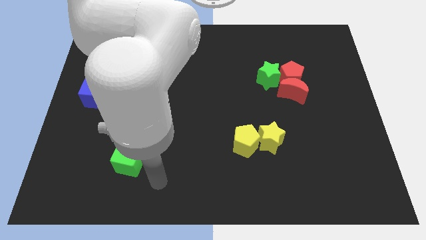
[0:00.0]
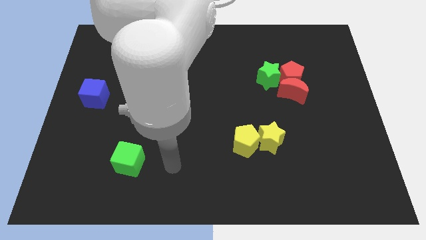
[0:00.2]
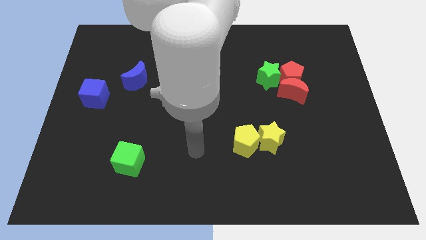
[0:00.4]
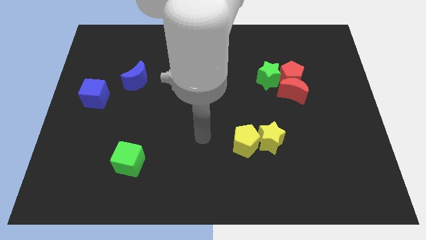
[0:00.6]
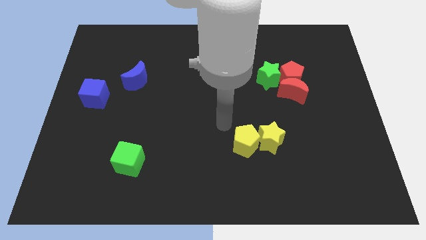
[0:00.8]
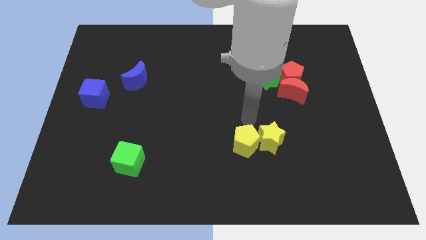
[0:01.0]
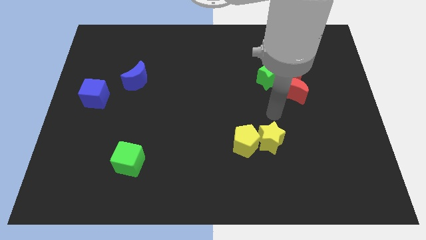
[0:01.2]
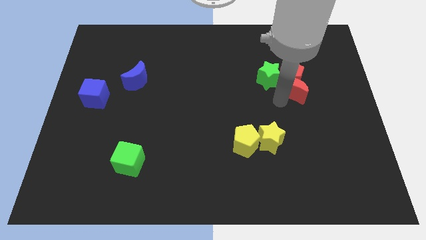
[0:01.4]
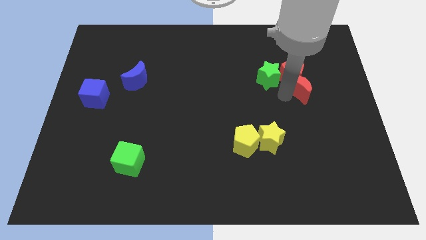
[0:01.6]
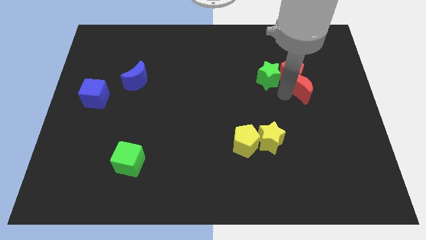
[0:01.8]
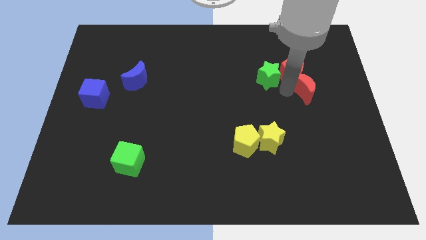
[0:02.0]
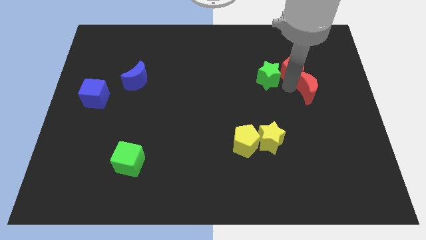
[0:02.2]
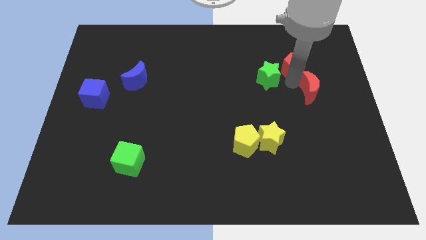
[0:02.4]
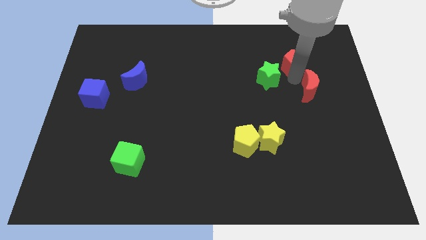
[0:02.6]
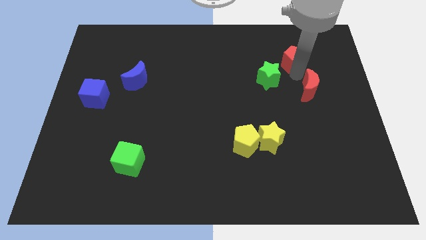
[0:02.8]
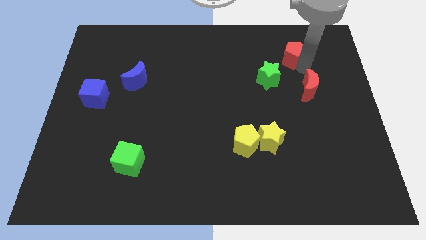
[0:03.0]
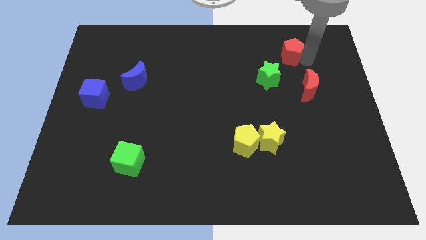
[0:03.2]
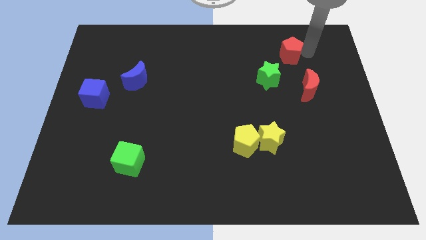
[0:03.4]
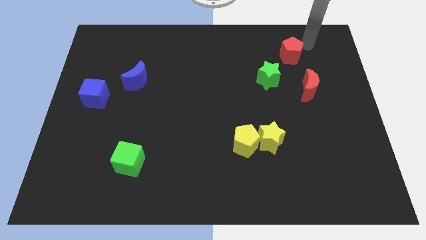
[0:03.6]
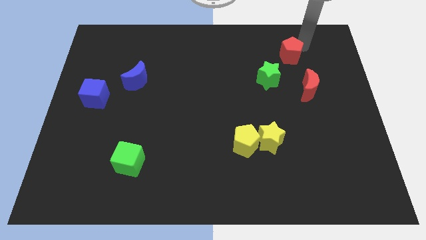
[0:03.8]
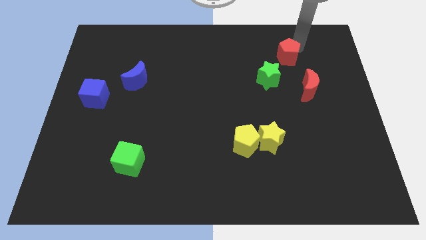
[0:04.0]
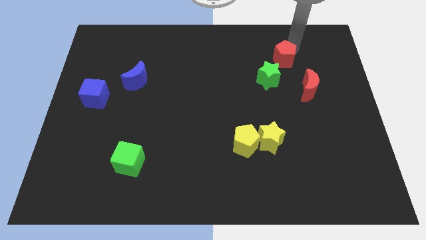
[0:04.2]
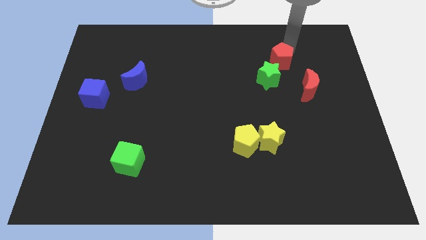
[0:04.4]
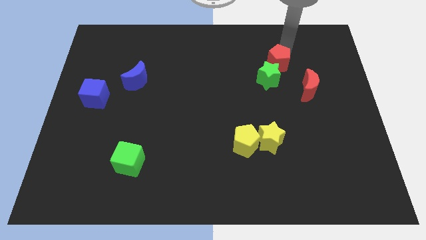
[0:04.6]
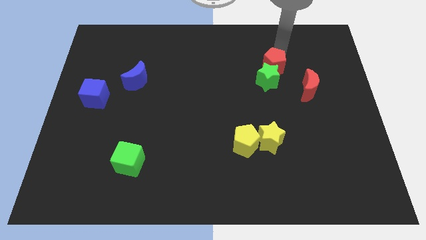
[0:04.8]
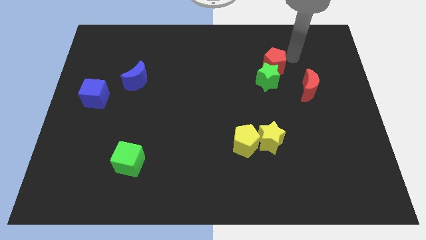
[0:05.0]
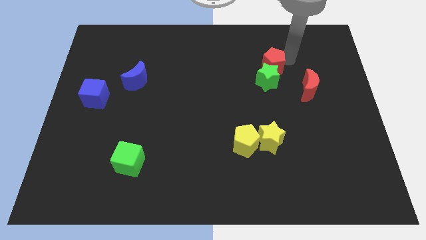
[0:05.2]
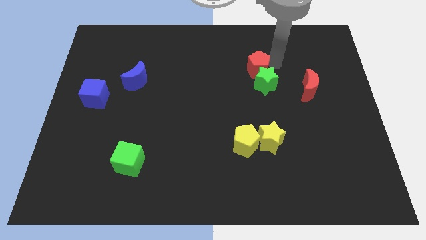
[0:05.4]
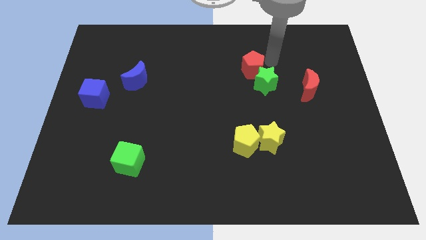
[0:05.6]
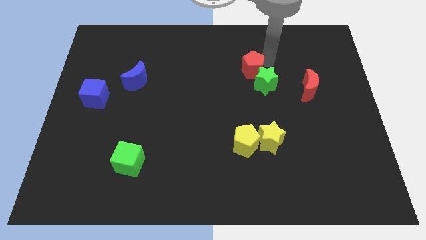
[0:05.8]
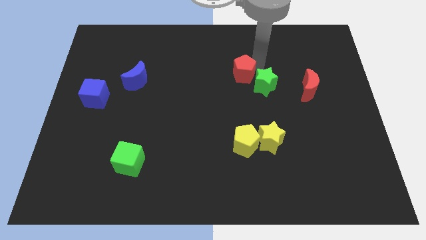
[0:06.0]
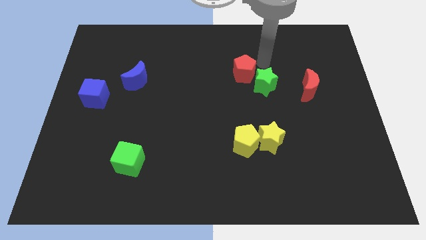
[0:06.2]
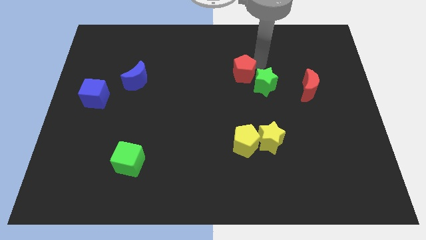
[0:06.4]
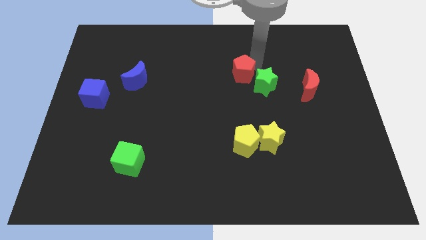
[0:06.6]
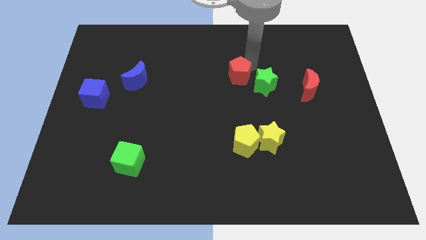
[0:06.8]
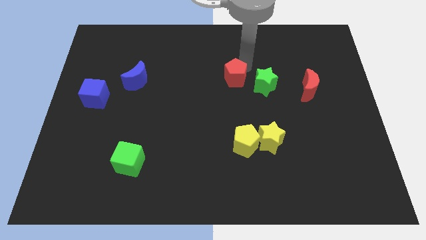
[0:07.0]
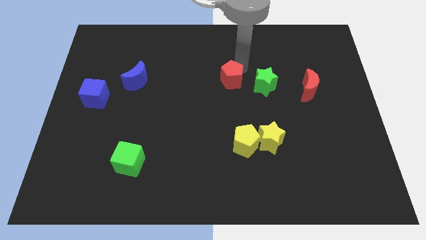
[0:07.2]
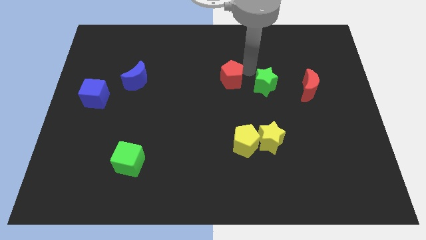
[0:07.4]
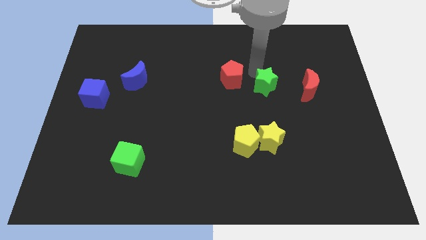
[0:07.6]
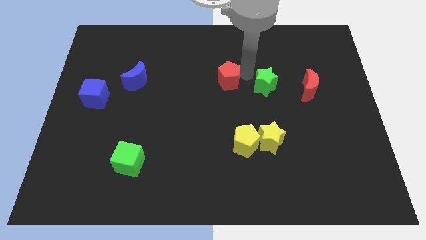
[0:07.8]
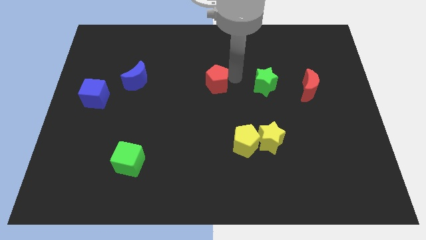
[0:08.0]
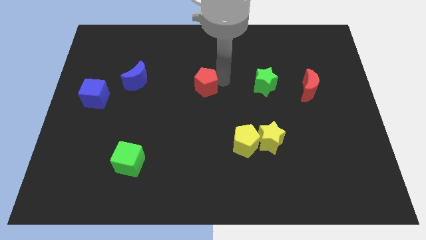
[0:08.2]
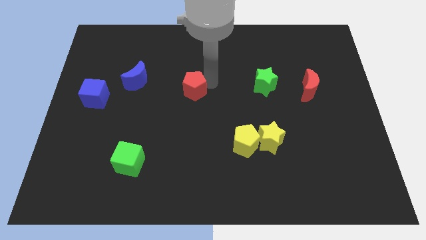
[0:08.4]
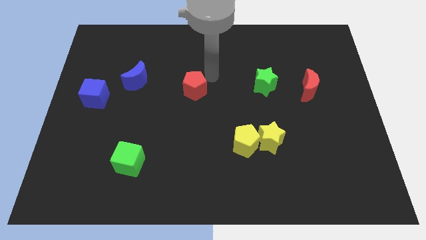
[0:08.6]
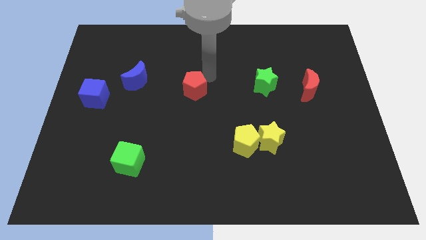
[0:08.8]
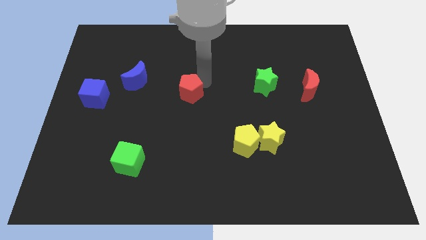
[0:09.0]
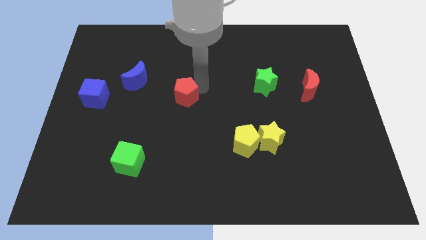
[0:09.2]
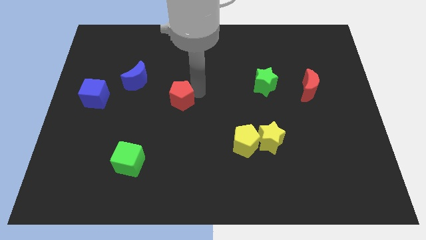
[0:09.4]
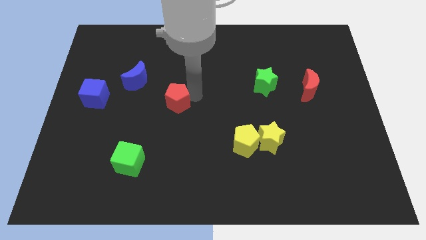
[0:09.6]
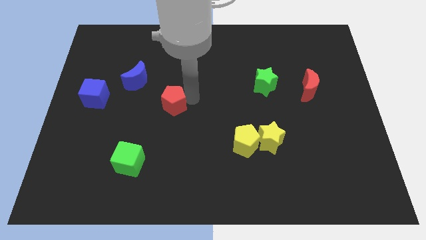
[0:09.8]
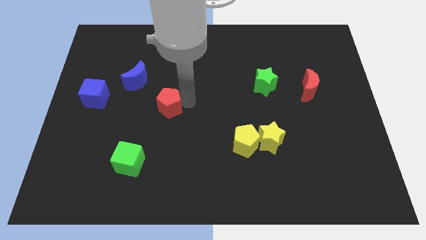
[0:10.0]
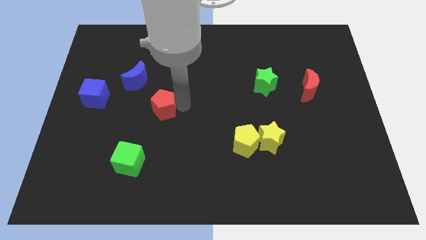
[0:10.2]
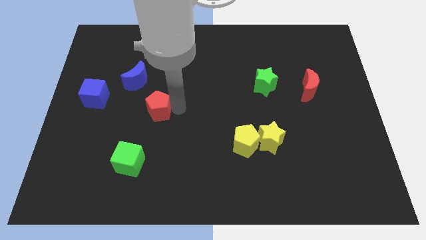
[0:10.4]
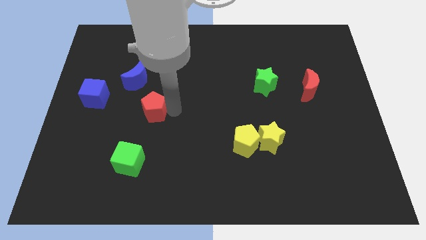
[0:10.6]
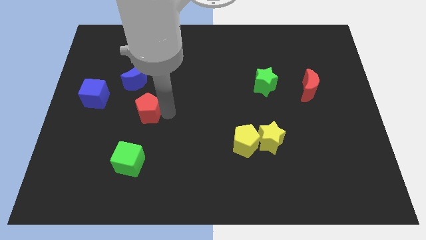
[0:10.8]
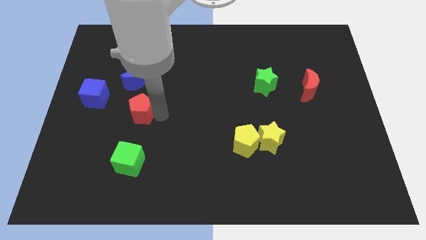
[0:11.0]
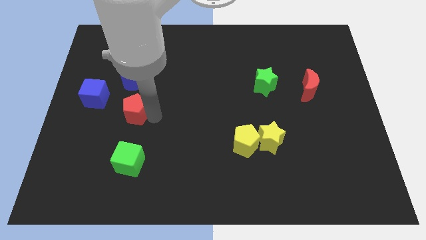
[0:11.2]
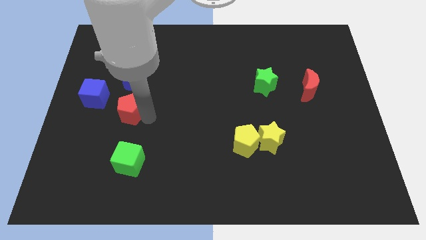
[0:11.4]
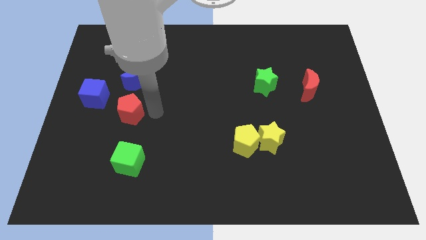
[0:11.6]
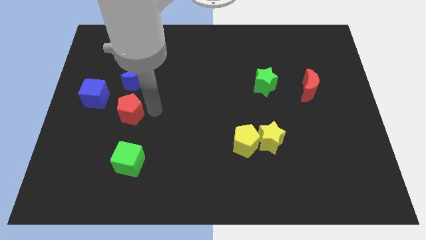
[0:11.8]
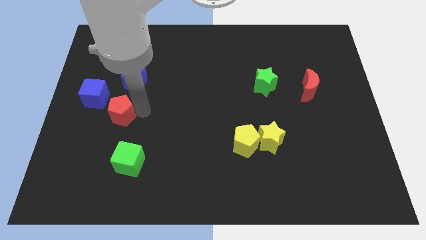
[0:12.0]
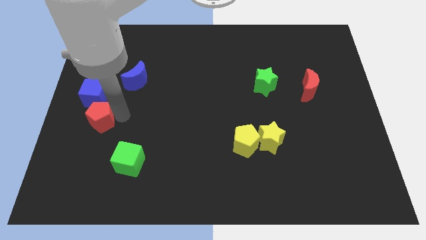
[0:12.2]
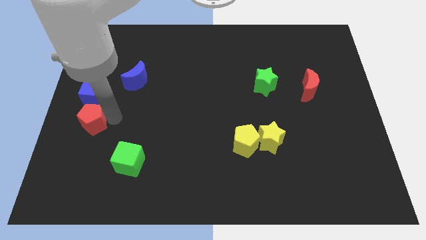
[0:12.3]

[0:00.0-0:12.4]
move the red pentagon to the left side
